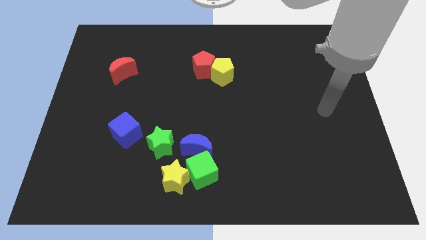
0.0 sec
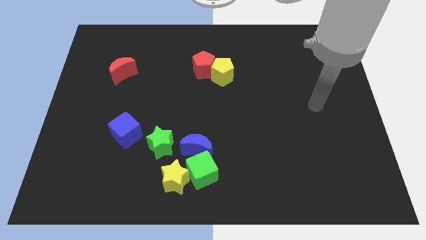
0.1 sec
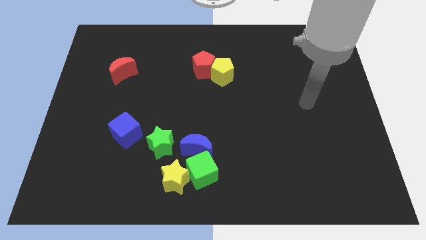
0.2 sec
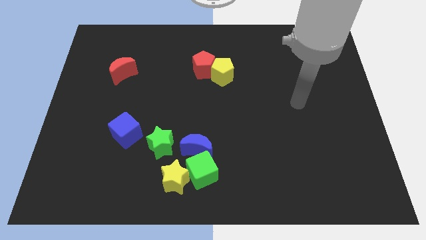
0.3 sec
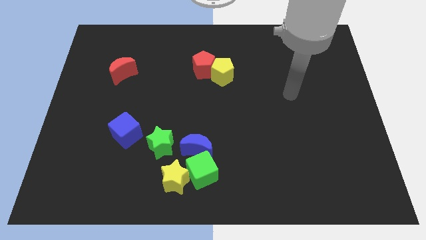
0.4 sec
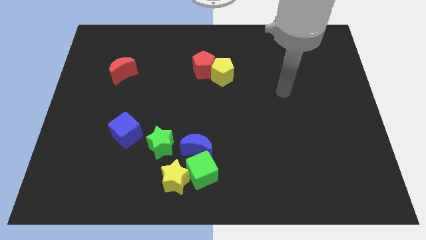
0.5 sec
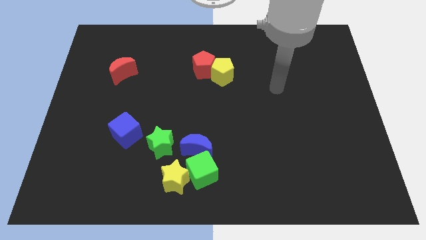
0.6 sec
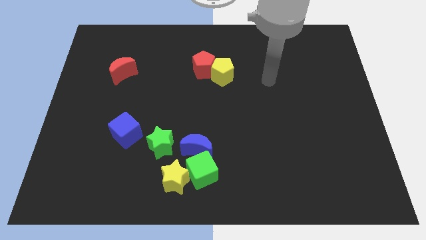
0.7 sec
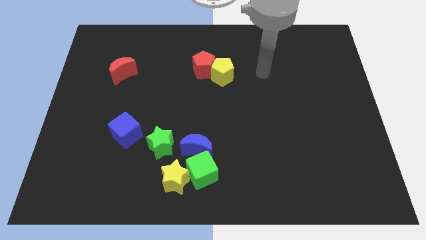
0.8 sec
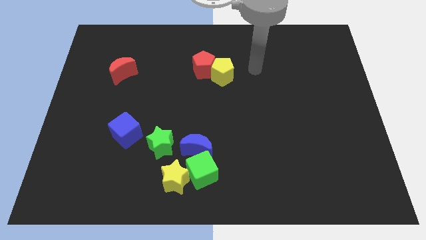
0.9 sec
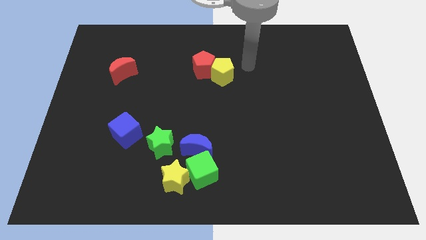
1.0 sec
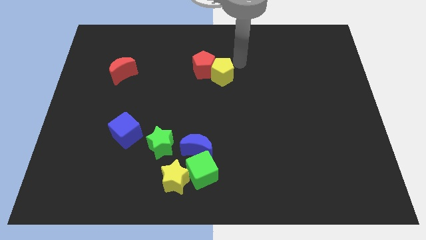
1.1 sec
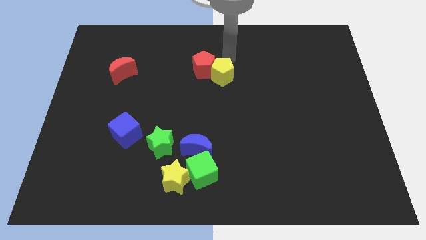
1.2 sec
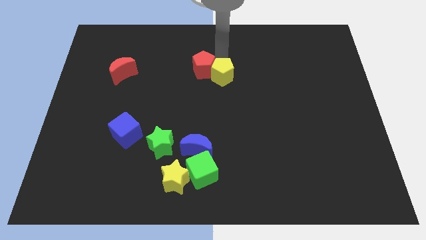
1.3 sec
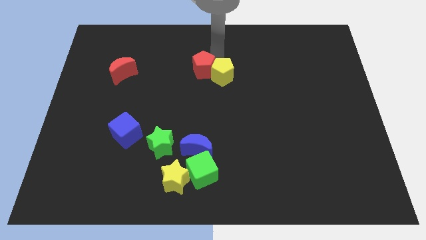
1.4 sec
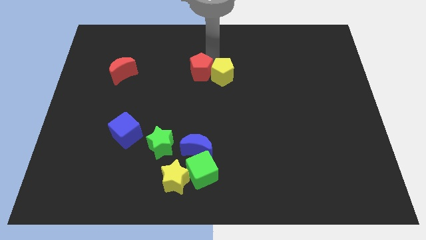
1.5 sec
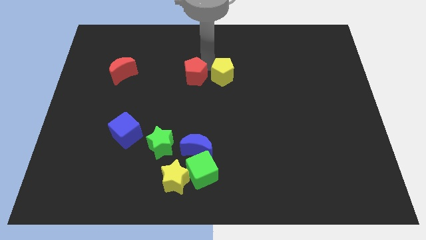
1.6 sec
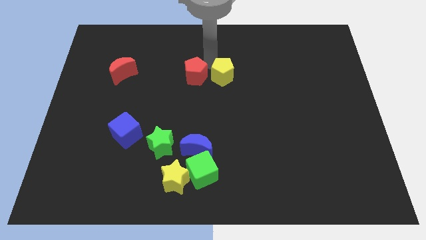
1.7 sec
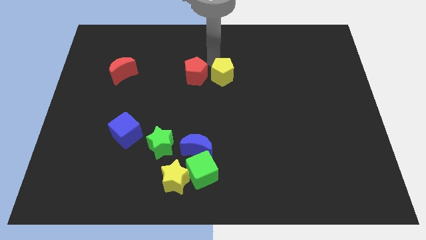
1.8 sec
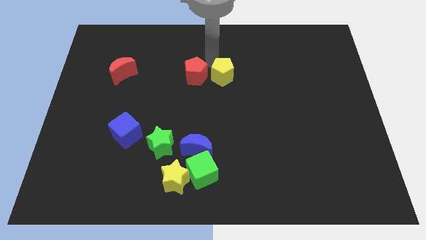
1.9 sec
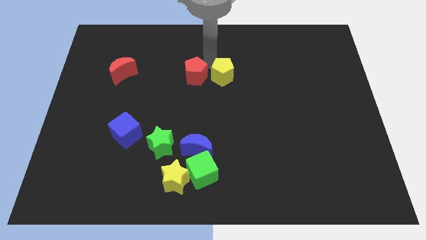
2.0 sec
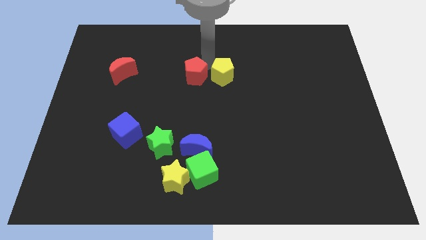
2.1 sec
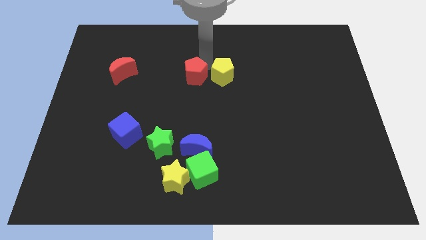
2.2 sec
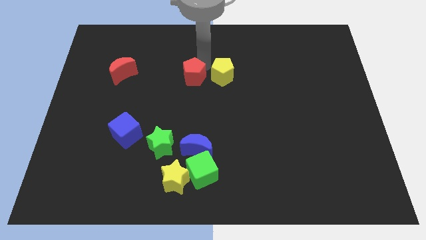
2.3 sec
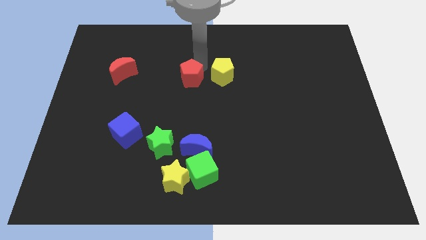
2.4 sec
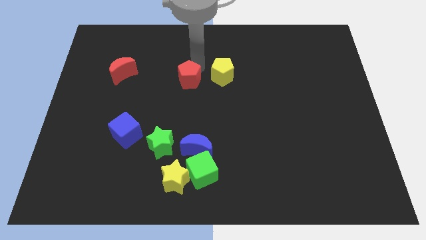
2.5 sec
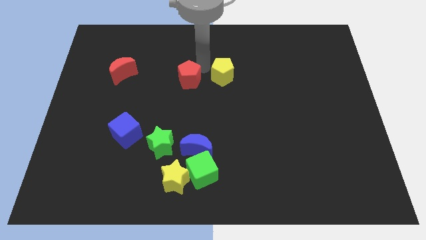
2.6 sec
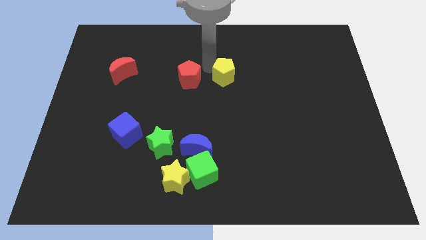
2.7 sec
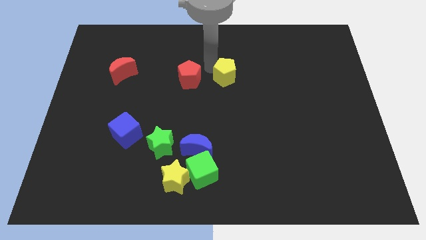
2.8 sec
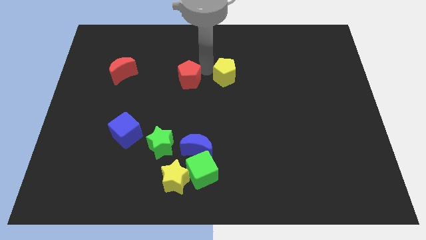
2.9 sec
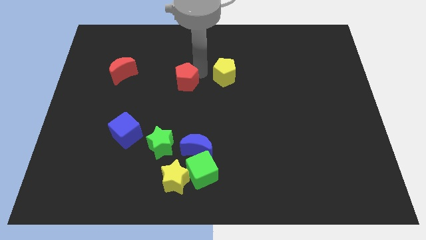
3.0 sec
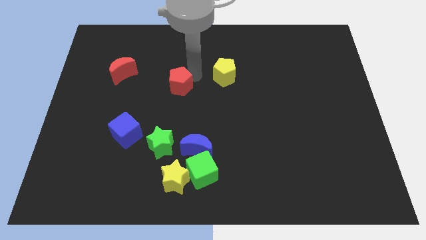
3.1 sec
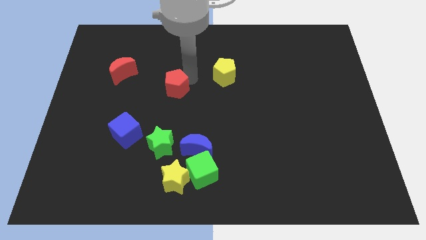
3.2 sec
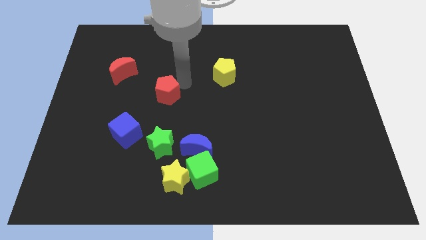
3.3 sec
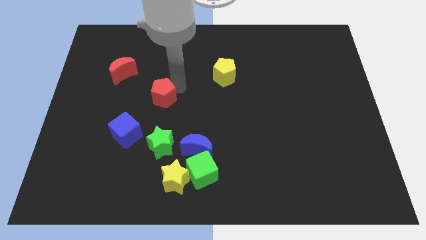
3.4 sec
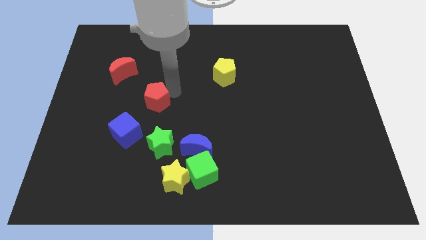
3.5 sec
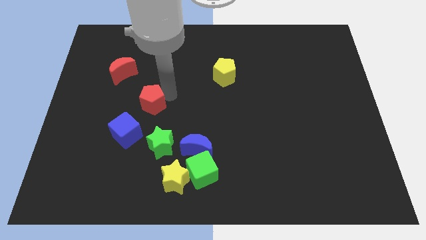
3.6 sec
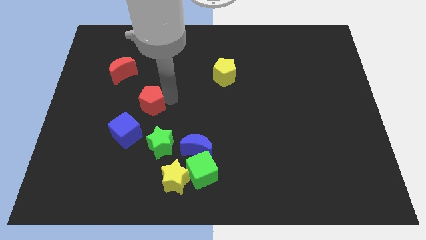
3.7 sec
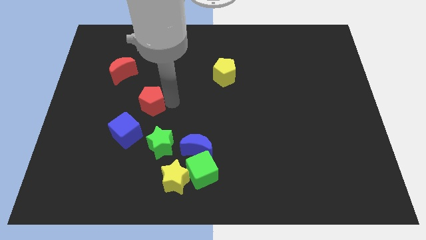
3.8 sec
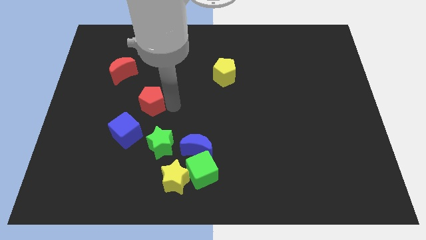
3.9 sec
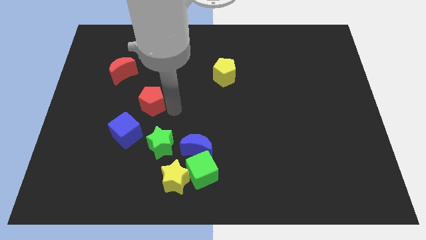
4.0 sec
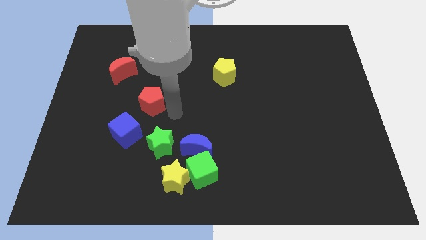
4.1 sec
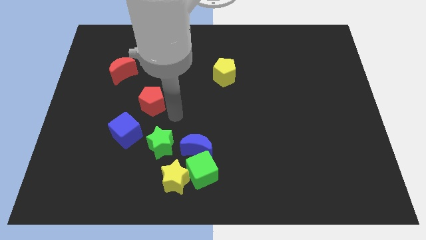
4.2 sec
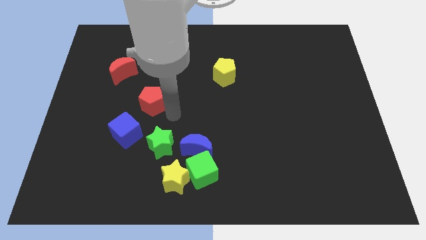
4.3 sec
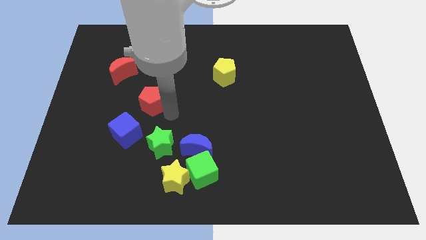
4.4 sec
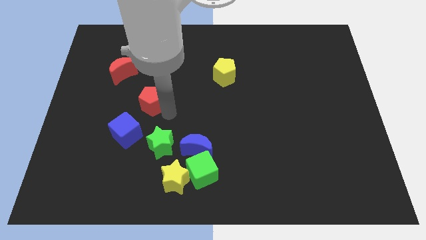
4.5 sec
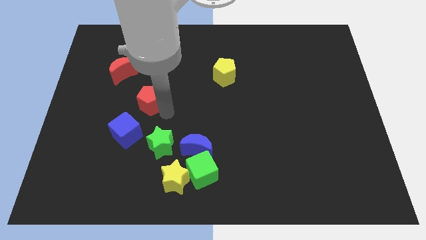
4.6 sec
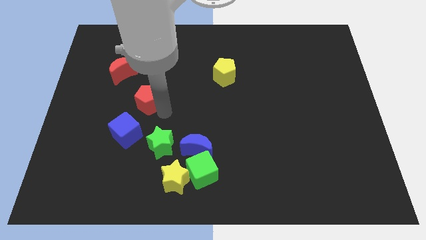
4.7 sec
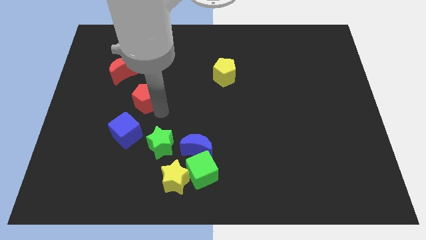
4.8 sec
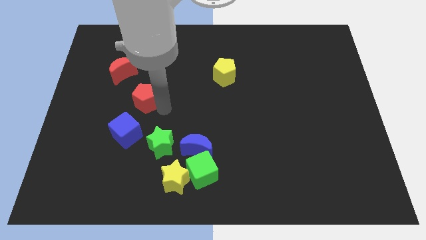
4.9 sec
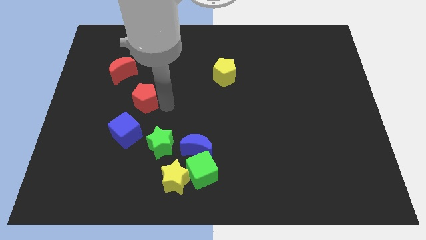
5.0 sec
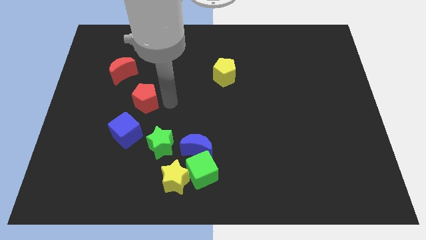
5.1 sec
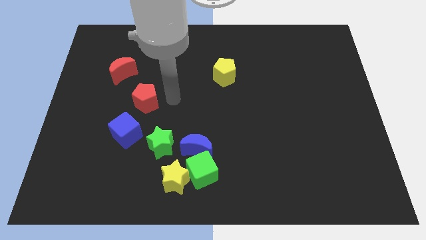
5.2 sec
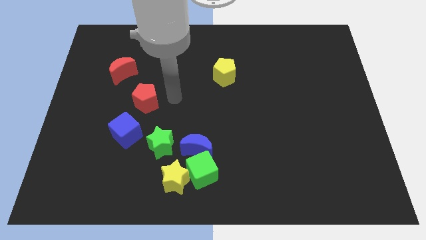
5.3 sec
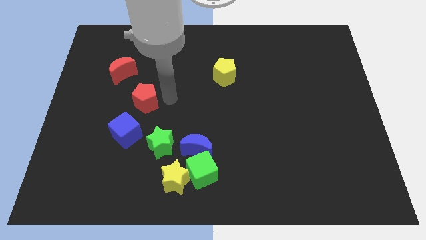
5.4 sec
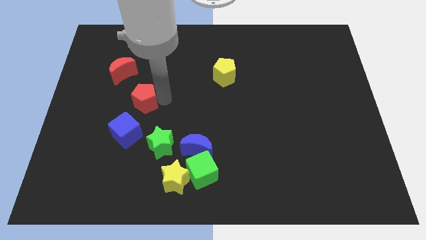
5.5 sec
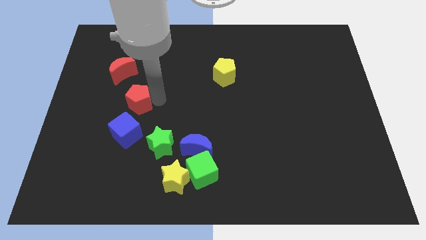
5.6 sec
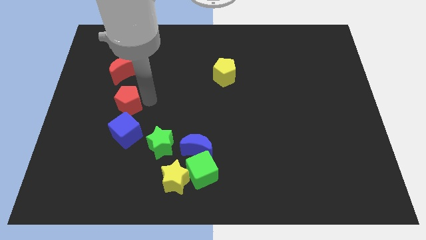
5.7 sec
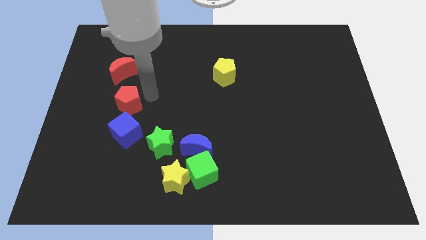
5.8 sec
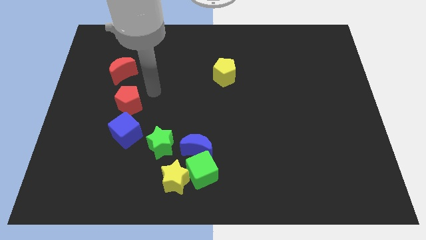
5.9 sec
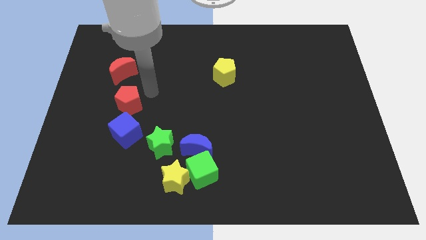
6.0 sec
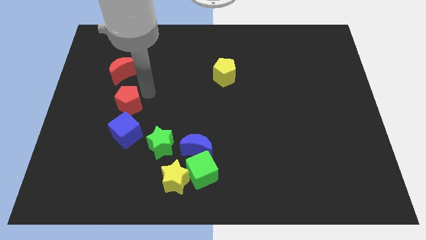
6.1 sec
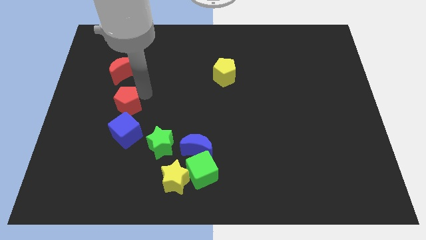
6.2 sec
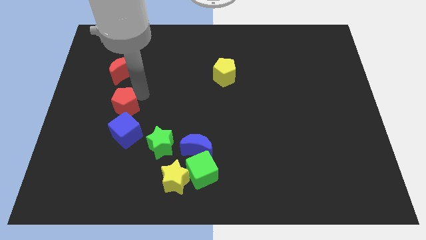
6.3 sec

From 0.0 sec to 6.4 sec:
move the red pentagon to the top left of the blue cube

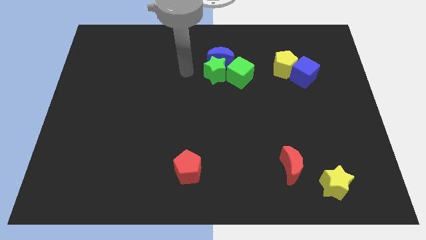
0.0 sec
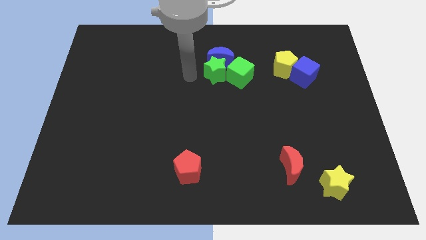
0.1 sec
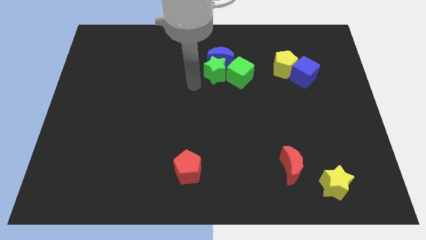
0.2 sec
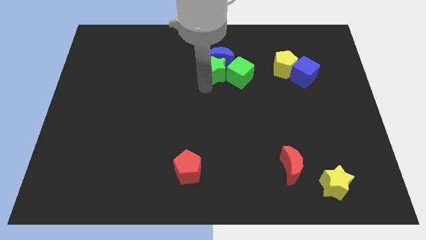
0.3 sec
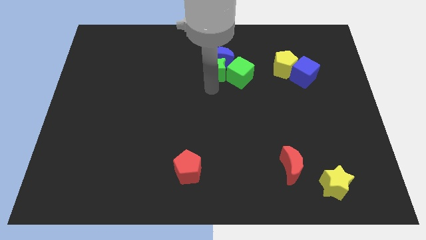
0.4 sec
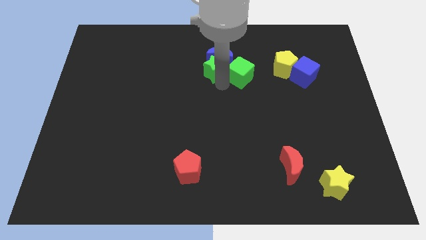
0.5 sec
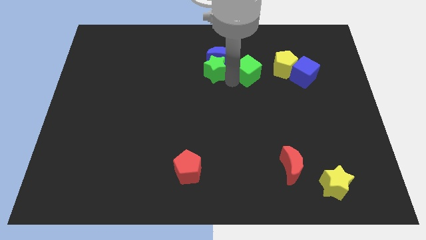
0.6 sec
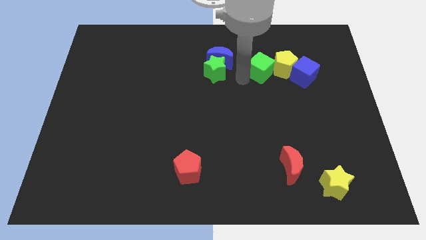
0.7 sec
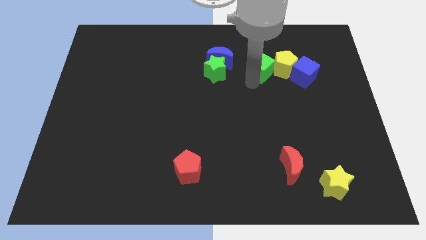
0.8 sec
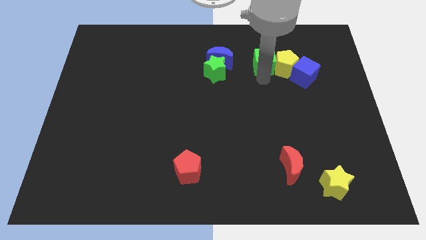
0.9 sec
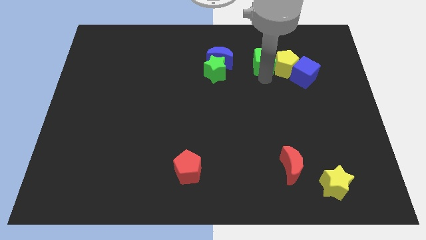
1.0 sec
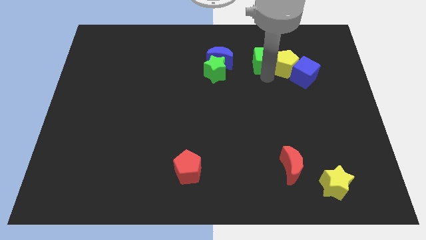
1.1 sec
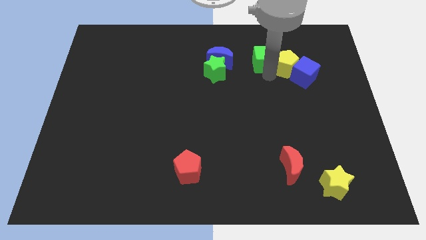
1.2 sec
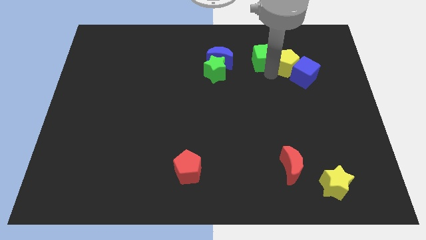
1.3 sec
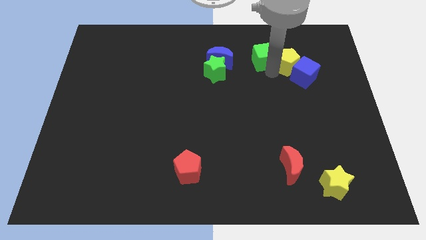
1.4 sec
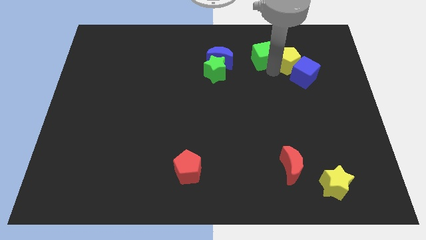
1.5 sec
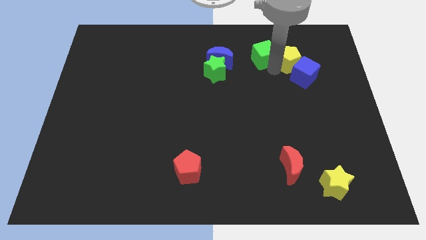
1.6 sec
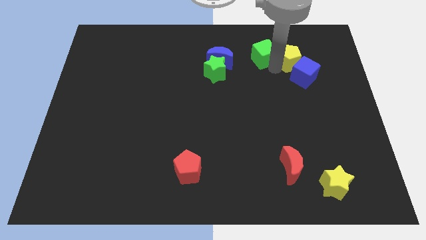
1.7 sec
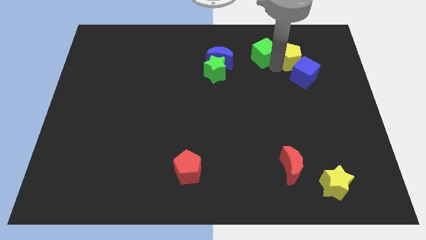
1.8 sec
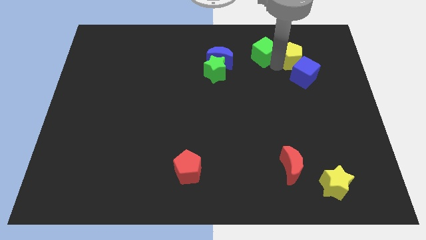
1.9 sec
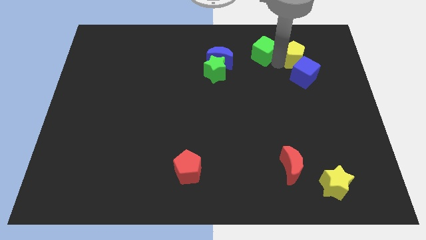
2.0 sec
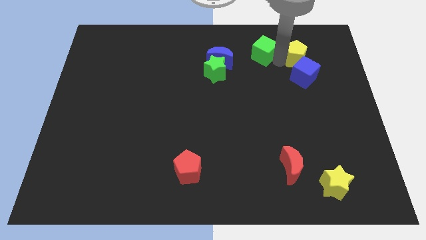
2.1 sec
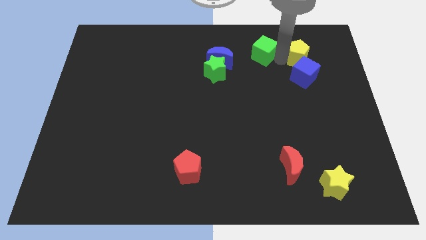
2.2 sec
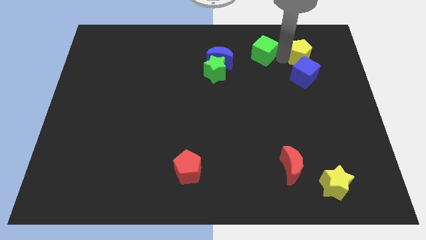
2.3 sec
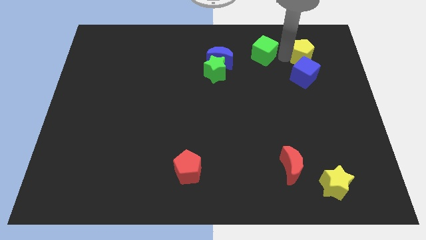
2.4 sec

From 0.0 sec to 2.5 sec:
push the yellow pentagon to the top right side of the blue cube
